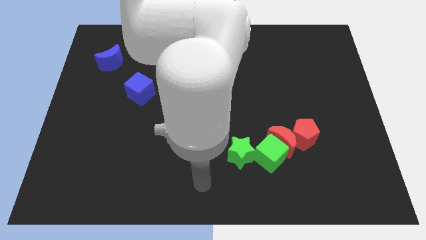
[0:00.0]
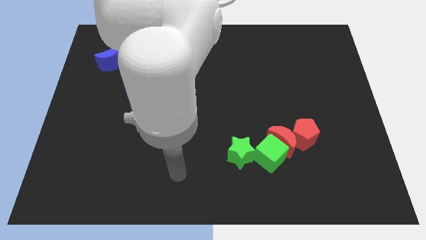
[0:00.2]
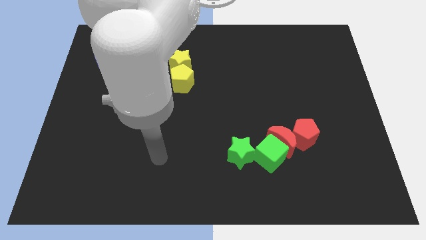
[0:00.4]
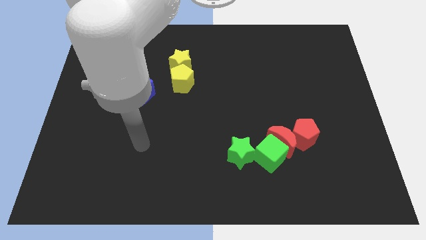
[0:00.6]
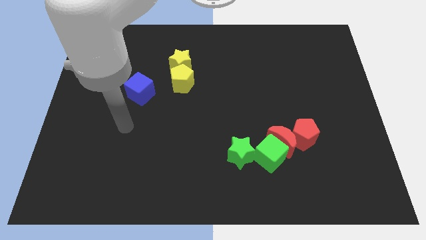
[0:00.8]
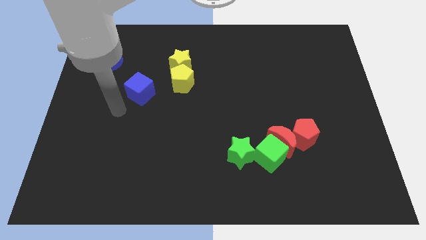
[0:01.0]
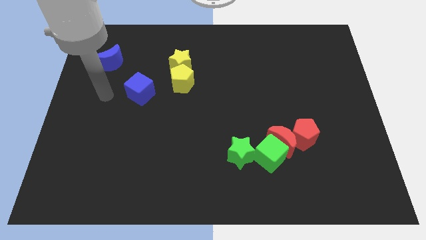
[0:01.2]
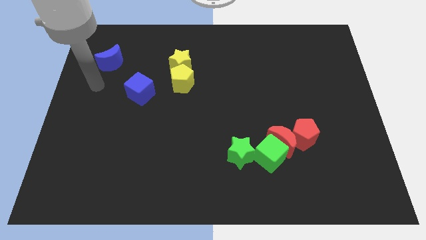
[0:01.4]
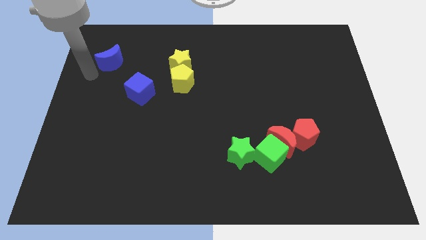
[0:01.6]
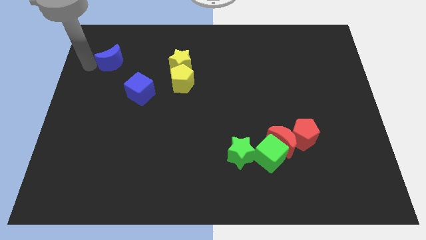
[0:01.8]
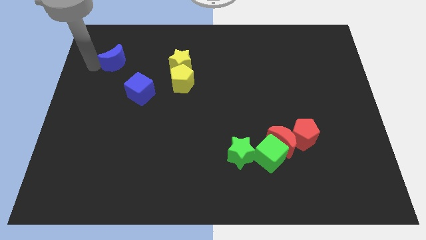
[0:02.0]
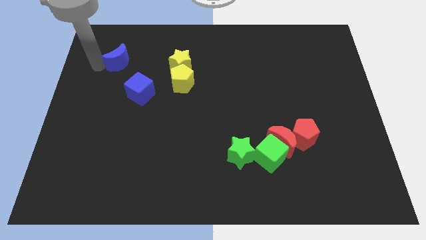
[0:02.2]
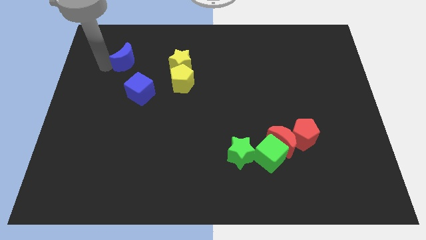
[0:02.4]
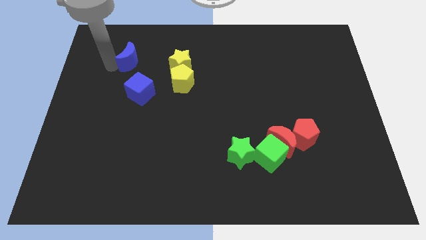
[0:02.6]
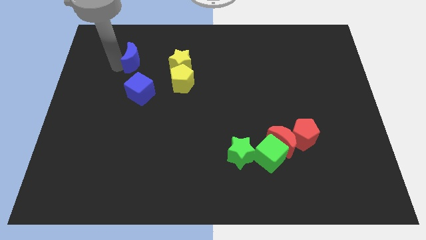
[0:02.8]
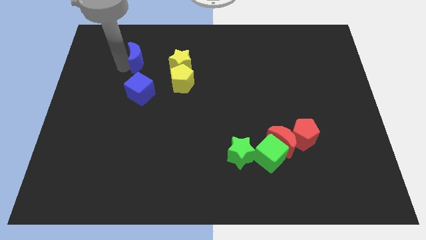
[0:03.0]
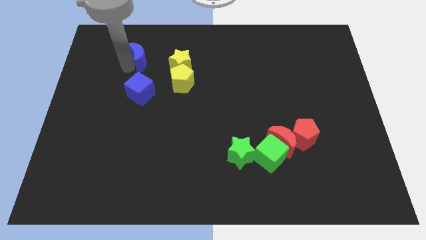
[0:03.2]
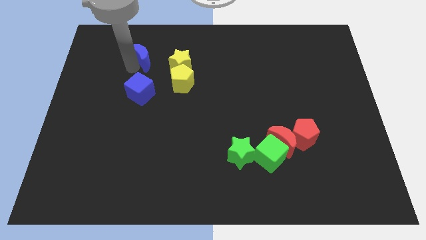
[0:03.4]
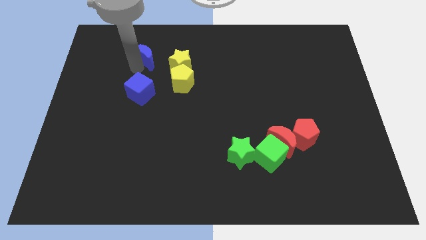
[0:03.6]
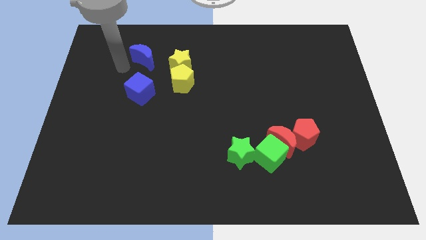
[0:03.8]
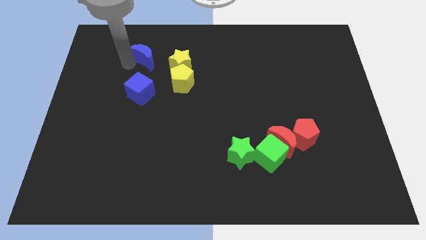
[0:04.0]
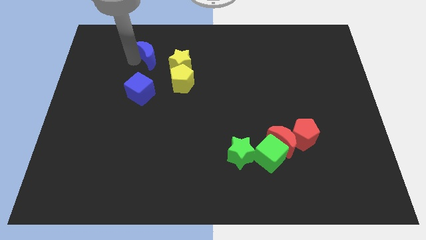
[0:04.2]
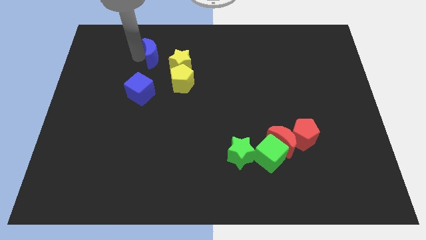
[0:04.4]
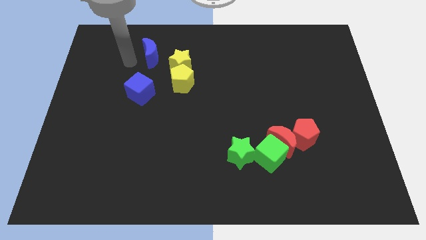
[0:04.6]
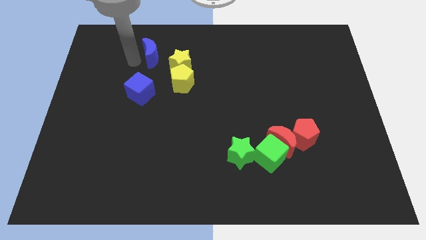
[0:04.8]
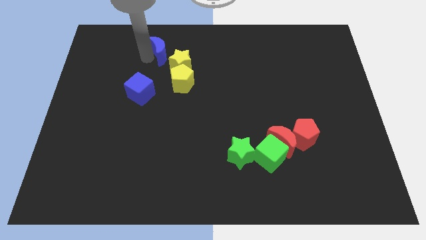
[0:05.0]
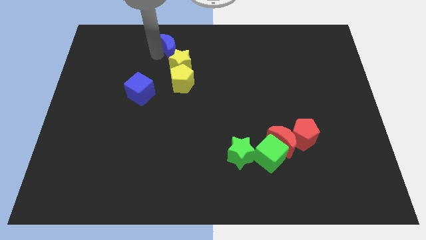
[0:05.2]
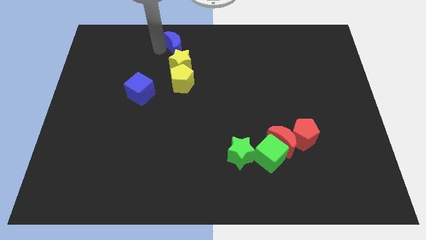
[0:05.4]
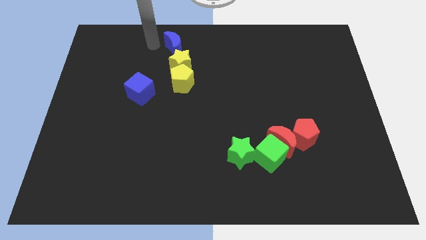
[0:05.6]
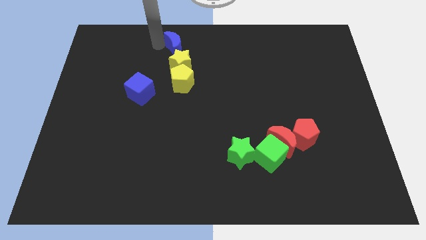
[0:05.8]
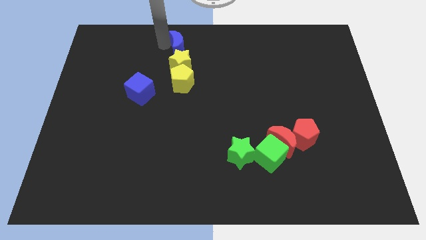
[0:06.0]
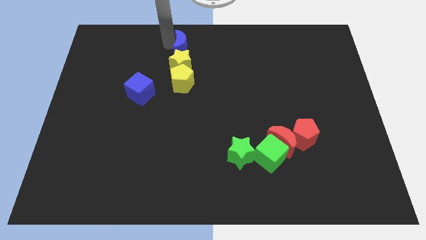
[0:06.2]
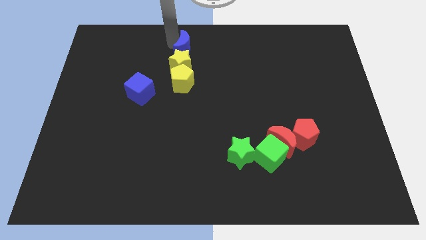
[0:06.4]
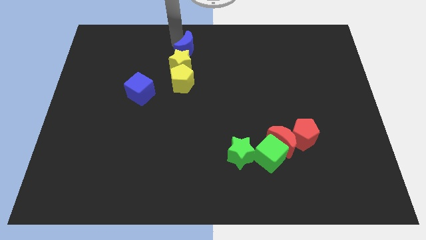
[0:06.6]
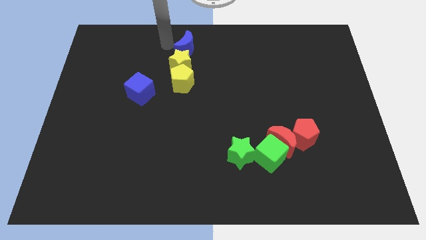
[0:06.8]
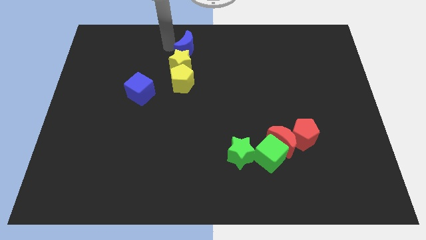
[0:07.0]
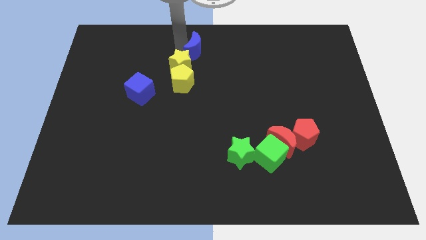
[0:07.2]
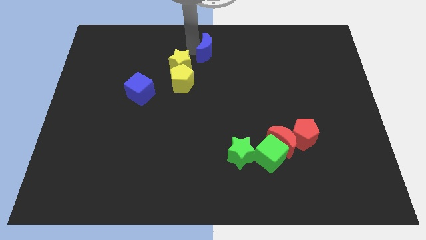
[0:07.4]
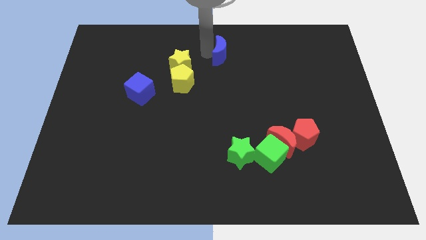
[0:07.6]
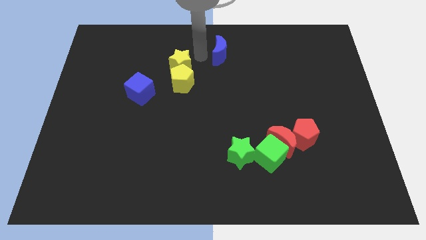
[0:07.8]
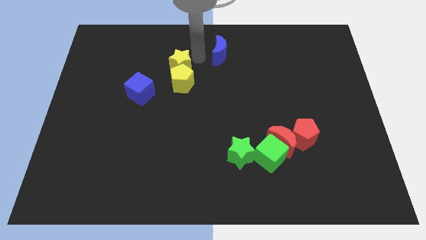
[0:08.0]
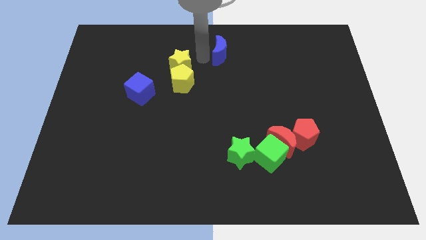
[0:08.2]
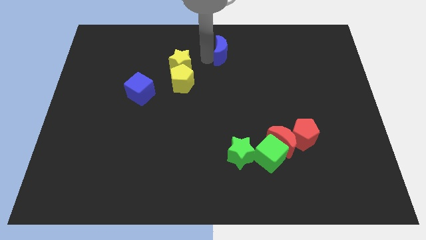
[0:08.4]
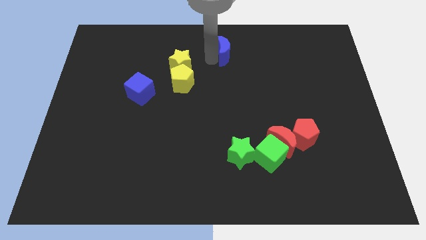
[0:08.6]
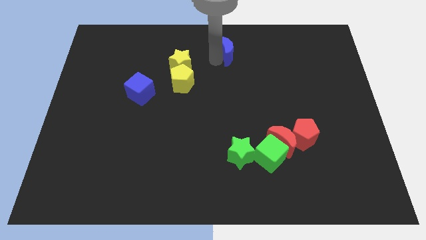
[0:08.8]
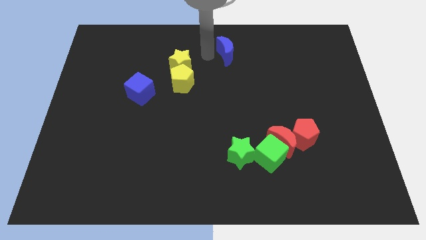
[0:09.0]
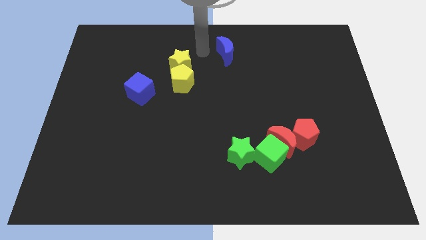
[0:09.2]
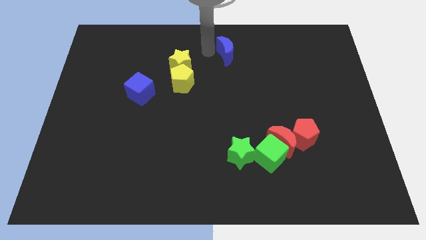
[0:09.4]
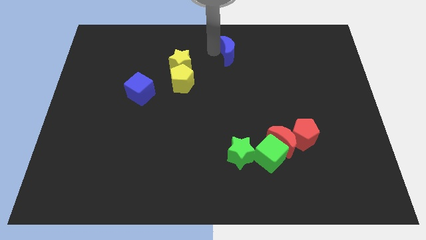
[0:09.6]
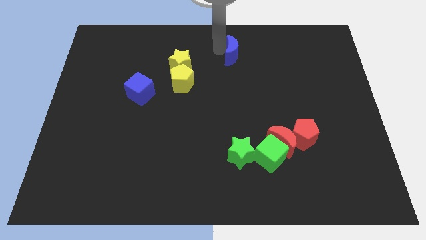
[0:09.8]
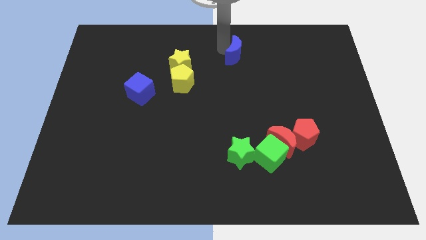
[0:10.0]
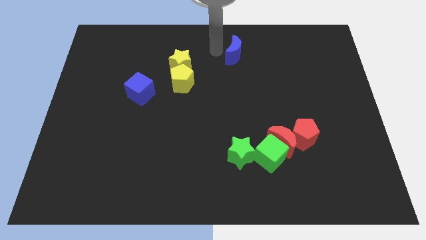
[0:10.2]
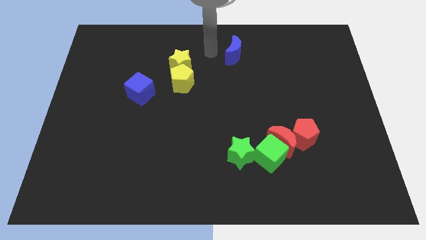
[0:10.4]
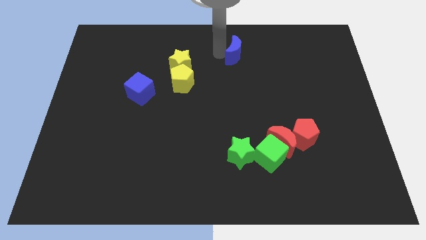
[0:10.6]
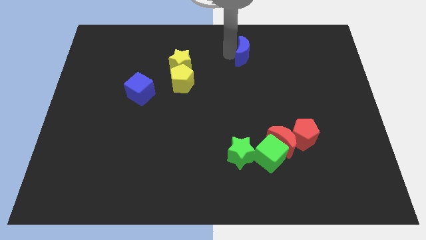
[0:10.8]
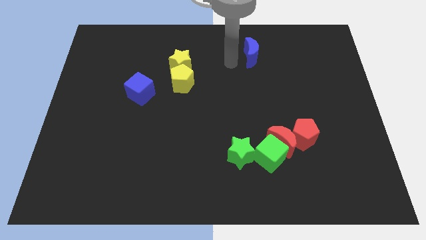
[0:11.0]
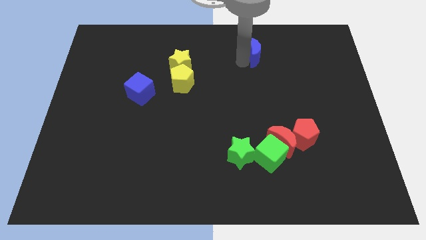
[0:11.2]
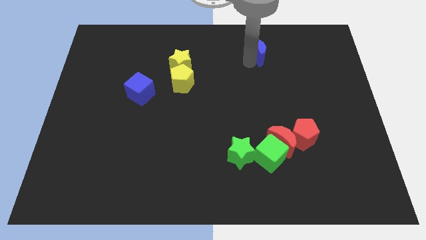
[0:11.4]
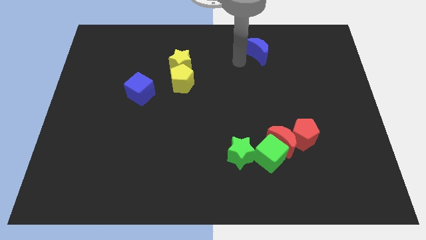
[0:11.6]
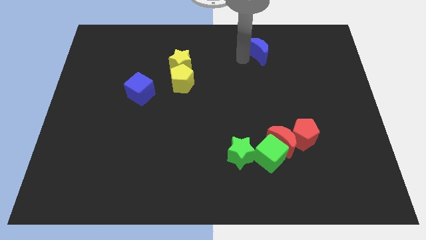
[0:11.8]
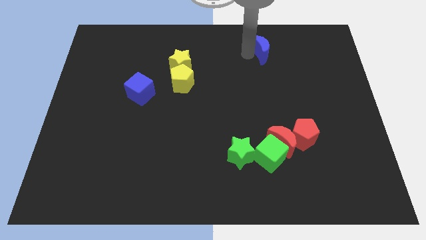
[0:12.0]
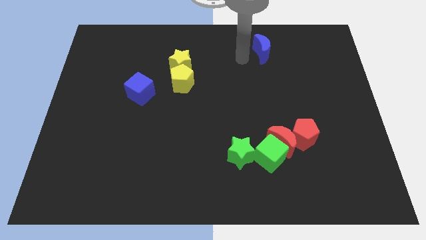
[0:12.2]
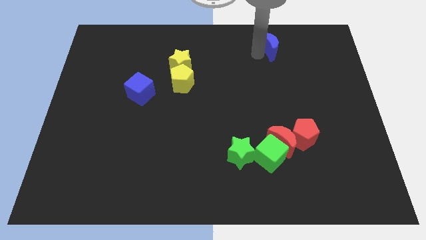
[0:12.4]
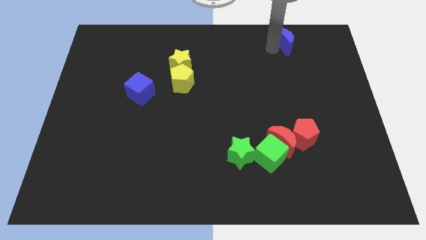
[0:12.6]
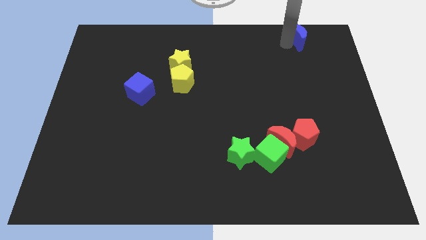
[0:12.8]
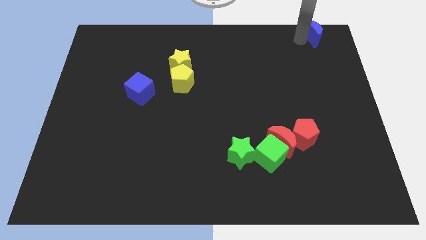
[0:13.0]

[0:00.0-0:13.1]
slide the blue moon to the top right corner
